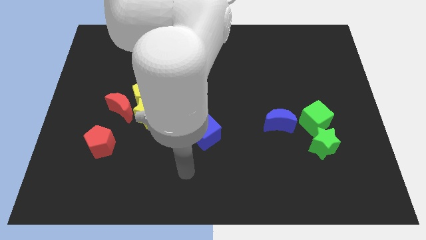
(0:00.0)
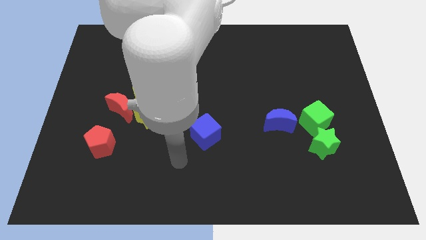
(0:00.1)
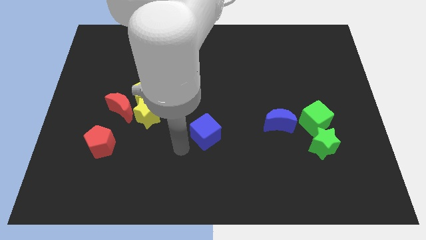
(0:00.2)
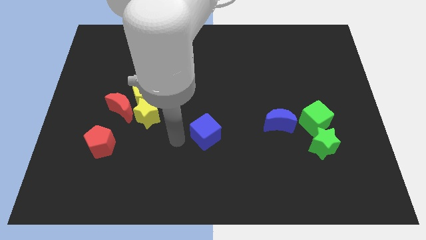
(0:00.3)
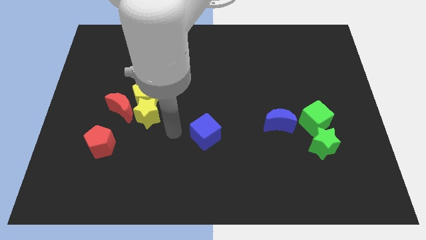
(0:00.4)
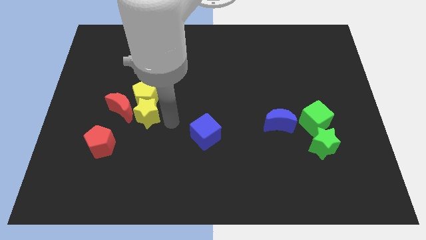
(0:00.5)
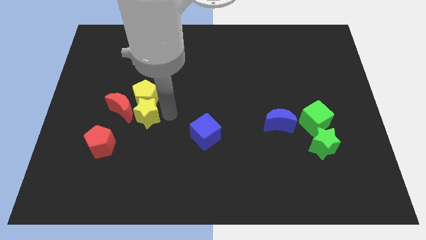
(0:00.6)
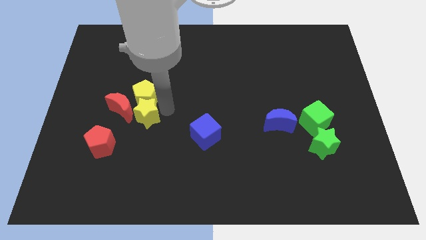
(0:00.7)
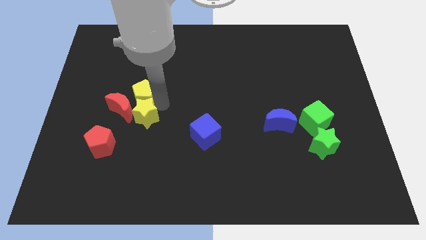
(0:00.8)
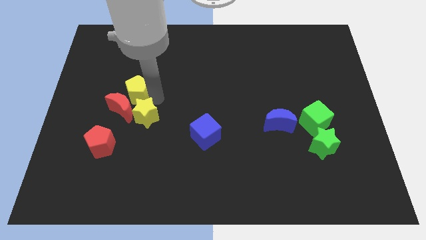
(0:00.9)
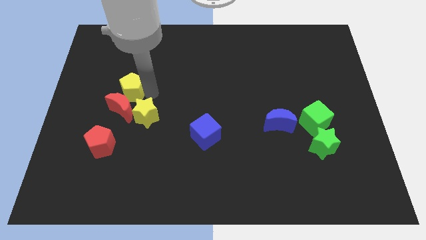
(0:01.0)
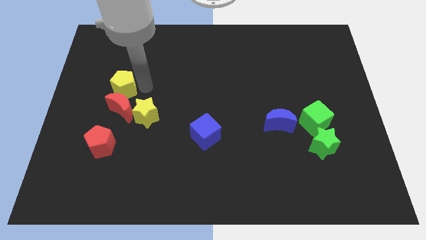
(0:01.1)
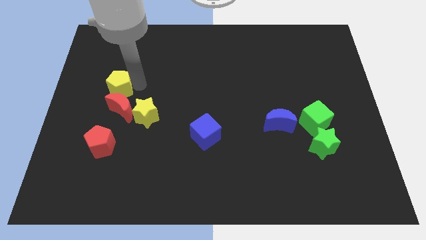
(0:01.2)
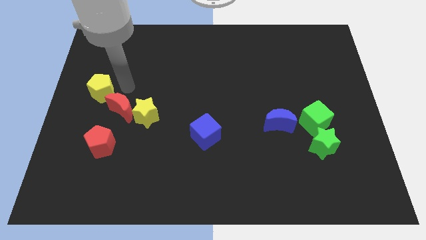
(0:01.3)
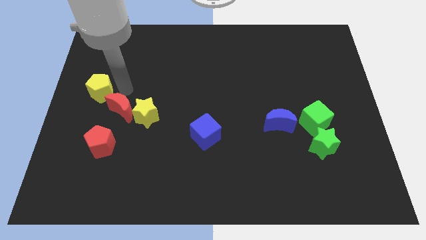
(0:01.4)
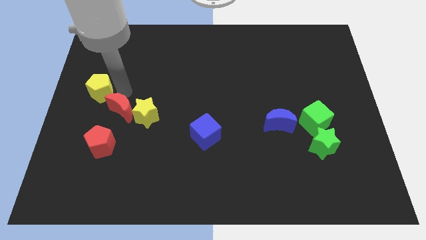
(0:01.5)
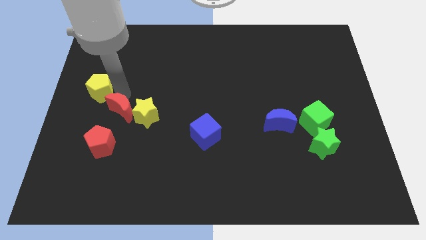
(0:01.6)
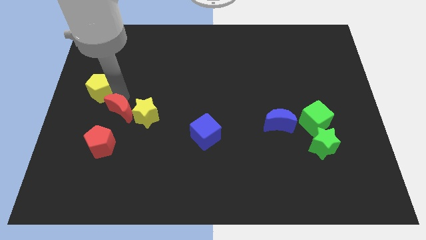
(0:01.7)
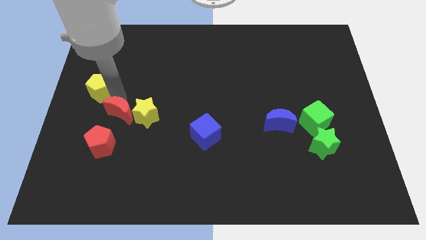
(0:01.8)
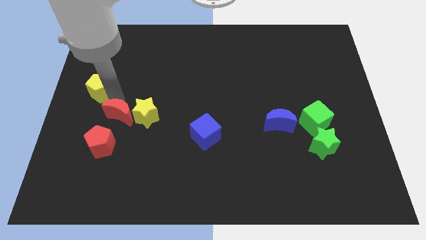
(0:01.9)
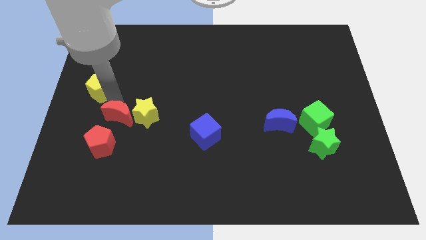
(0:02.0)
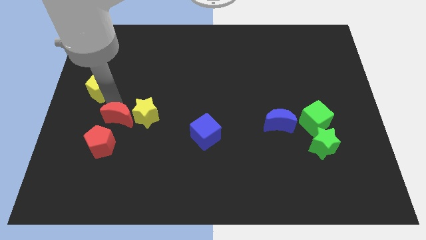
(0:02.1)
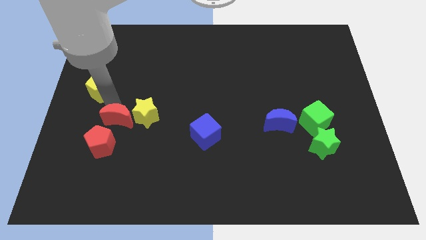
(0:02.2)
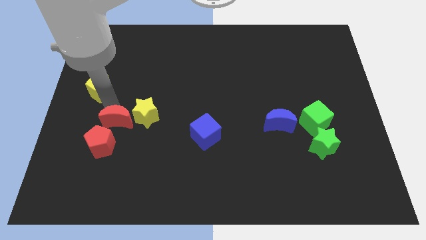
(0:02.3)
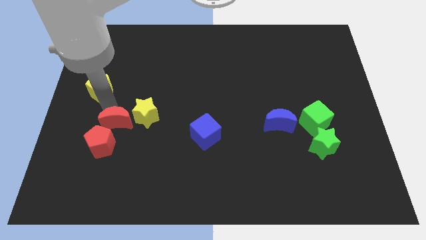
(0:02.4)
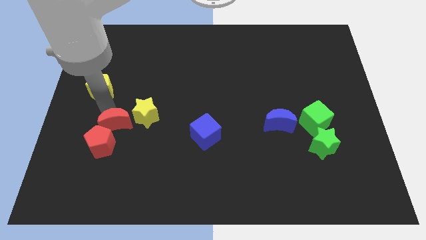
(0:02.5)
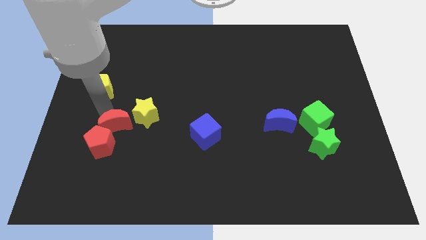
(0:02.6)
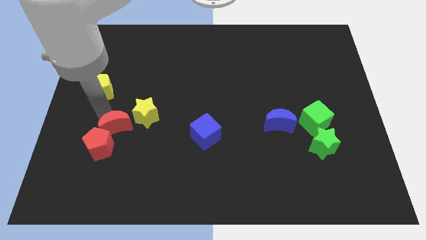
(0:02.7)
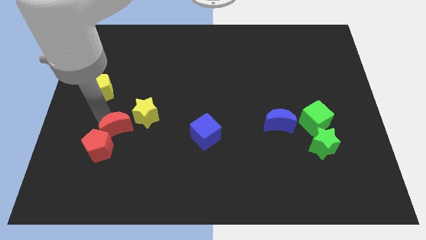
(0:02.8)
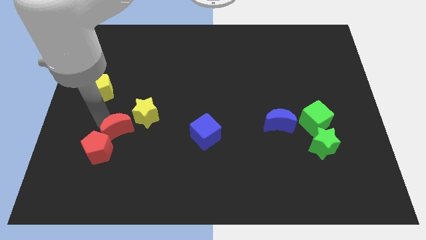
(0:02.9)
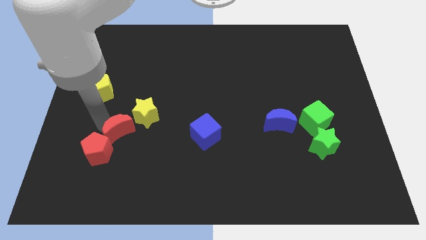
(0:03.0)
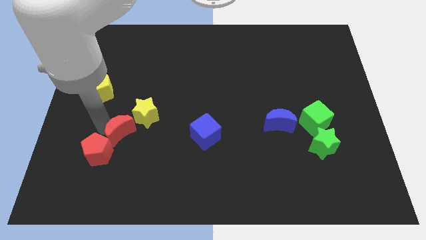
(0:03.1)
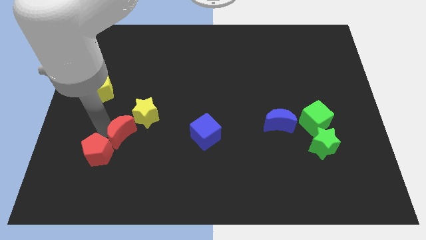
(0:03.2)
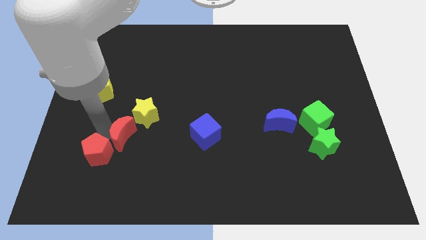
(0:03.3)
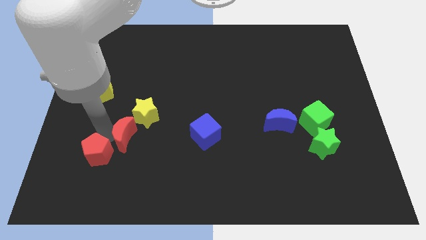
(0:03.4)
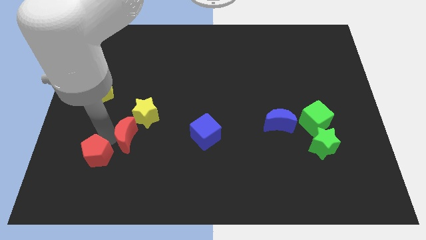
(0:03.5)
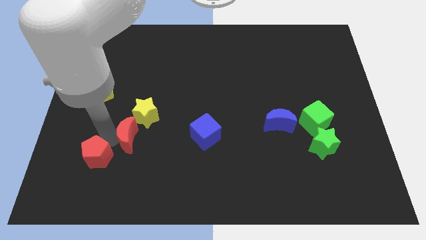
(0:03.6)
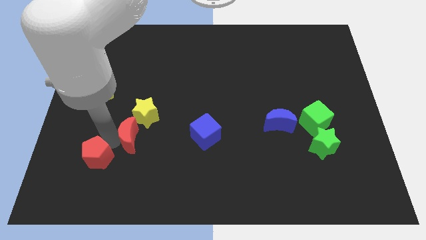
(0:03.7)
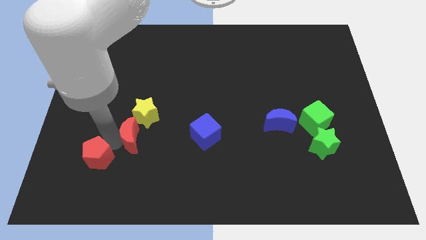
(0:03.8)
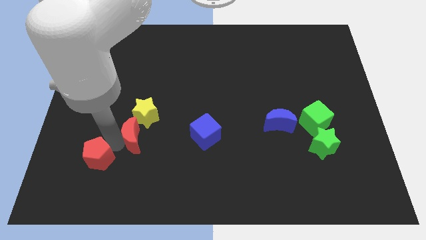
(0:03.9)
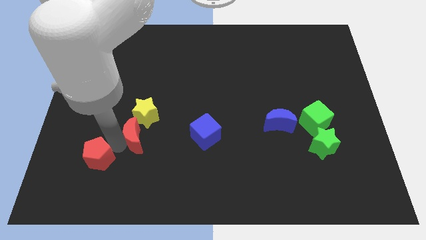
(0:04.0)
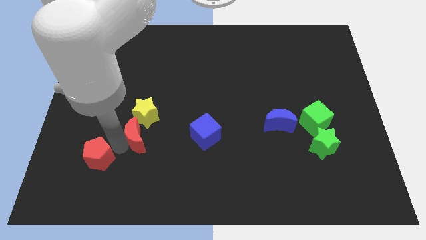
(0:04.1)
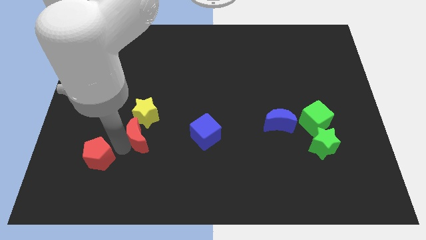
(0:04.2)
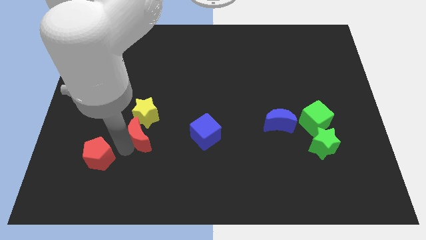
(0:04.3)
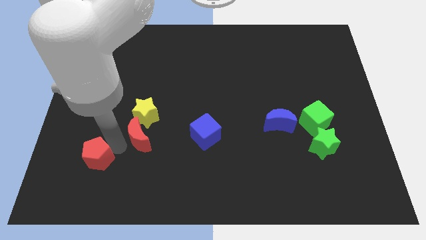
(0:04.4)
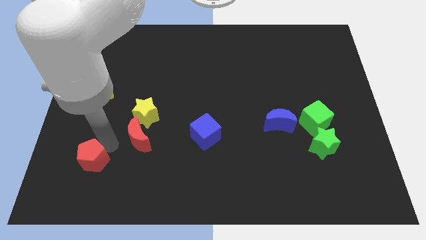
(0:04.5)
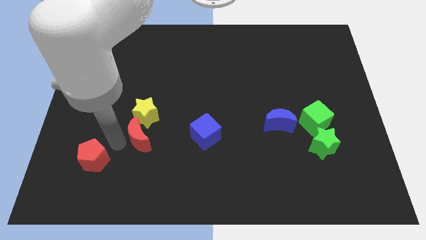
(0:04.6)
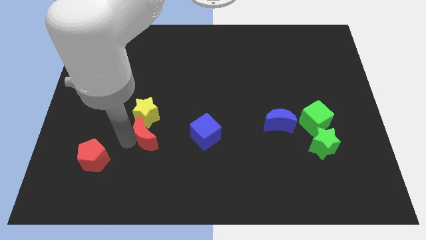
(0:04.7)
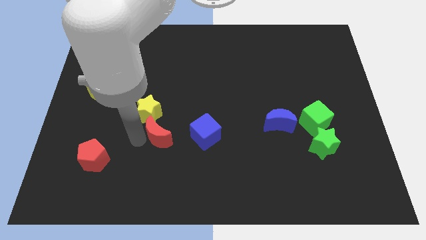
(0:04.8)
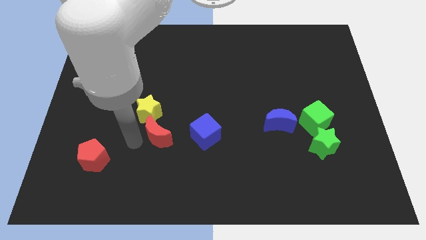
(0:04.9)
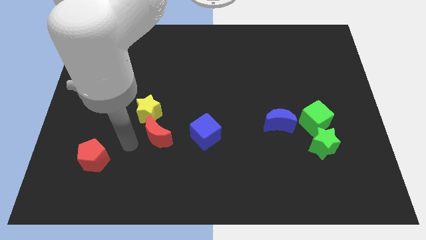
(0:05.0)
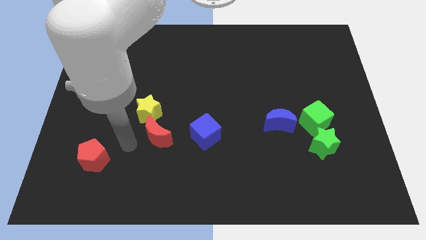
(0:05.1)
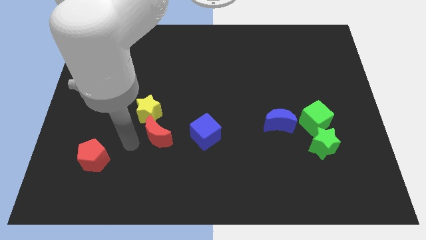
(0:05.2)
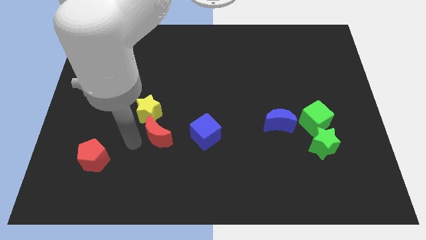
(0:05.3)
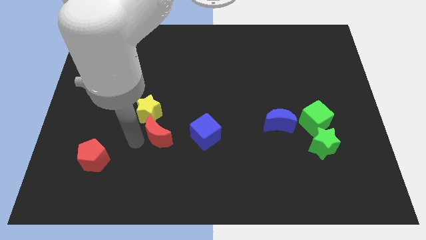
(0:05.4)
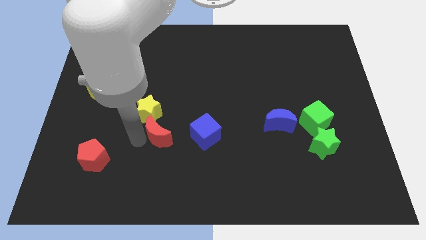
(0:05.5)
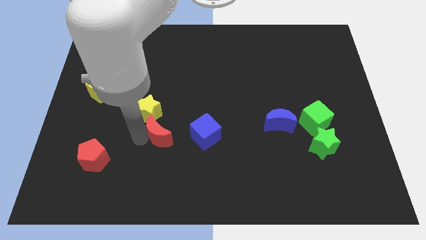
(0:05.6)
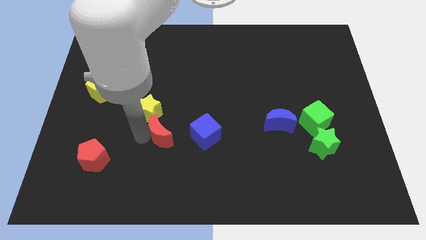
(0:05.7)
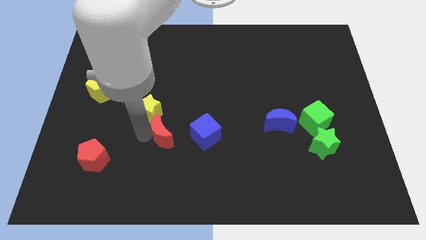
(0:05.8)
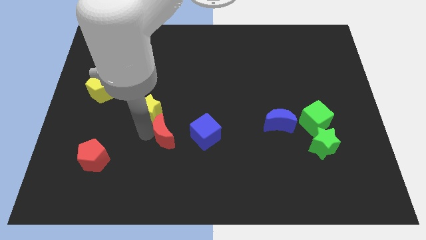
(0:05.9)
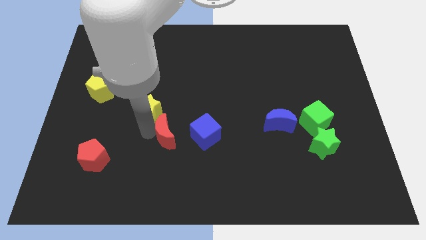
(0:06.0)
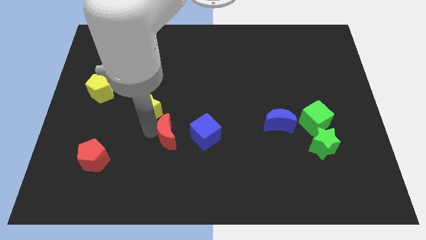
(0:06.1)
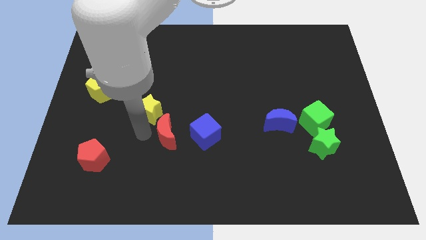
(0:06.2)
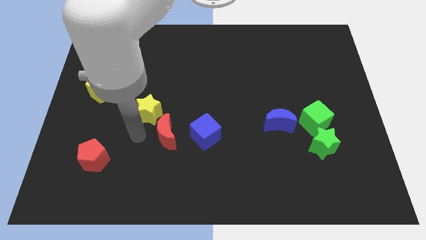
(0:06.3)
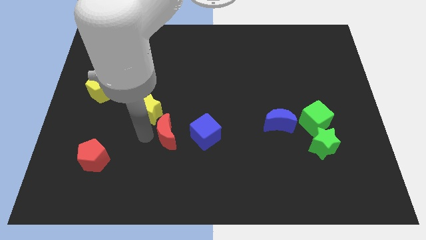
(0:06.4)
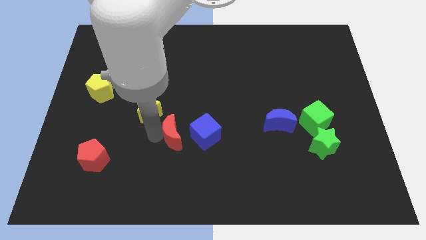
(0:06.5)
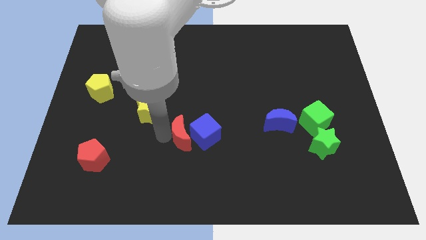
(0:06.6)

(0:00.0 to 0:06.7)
push the red moon close to the blue cube
